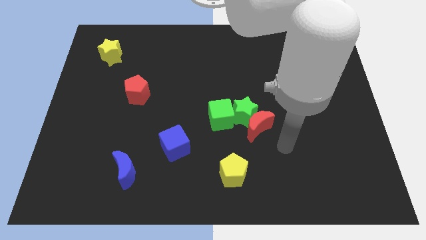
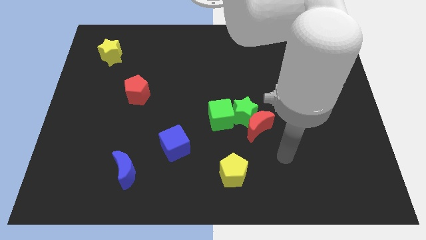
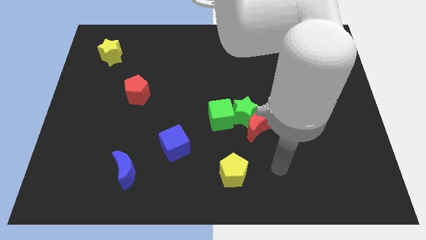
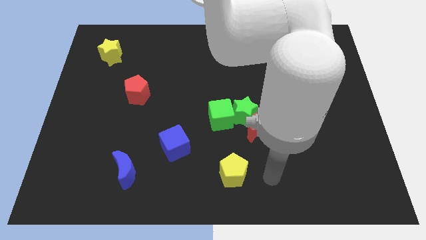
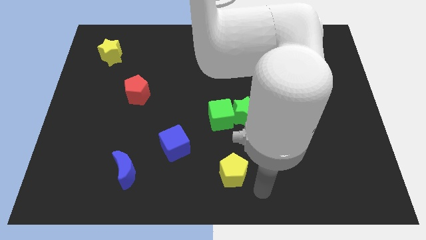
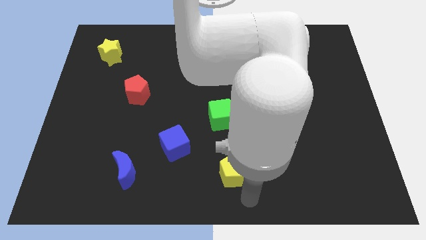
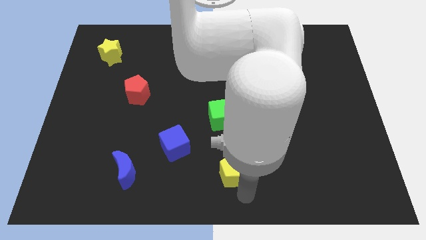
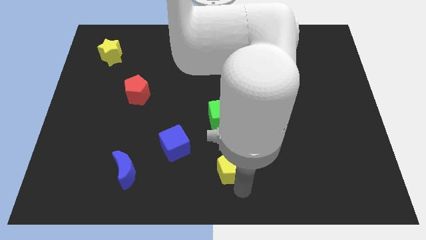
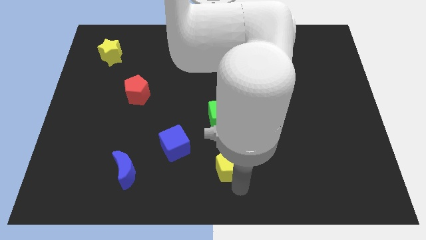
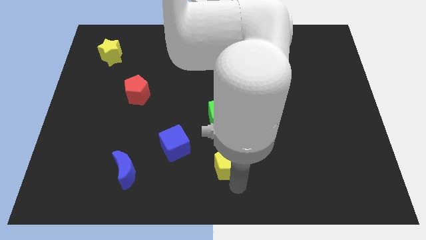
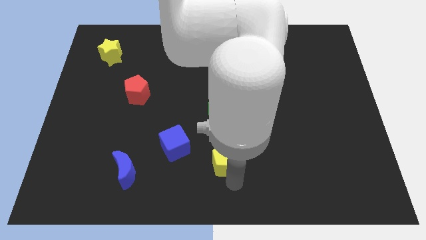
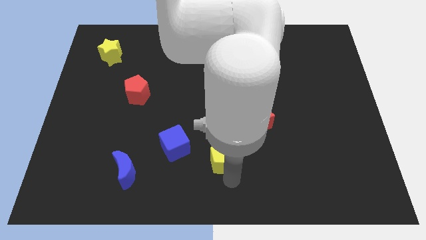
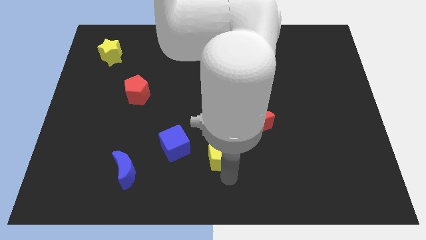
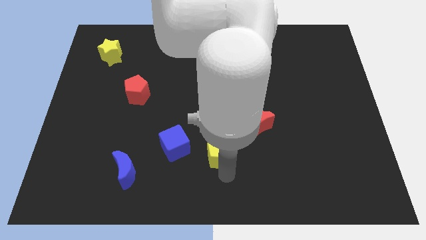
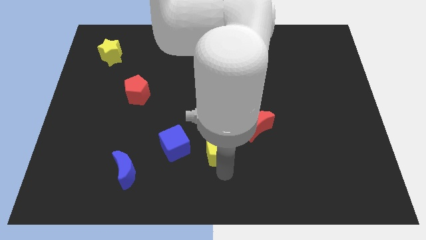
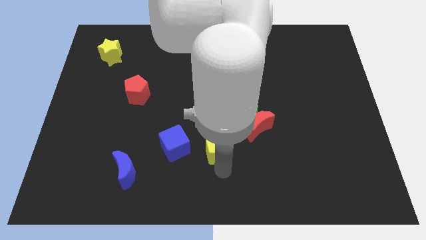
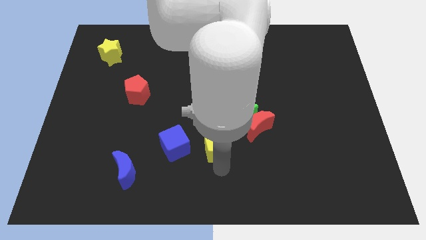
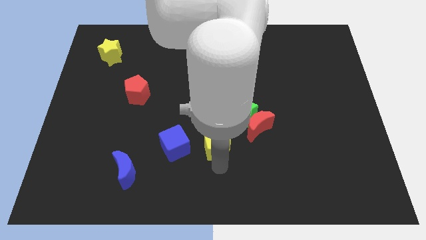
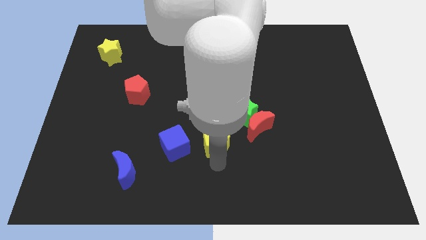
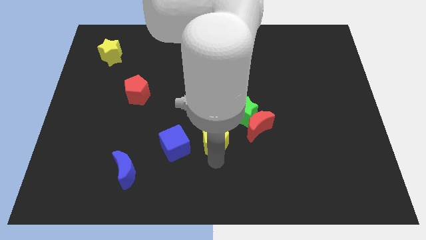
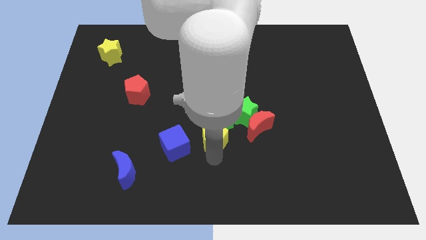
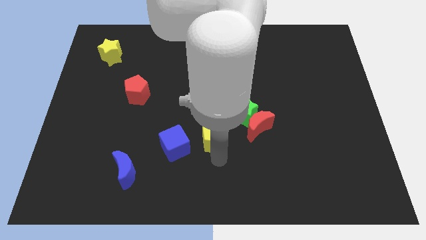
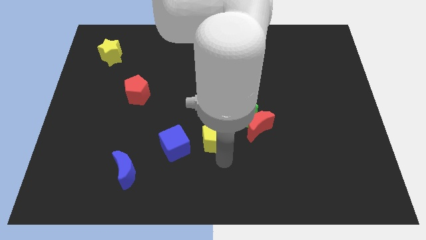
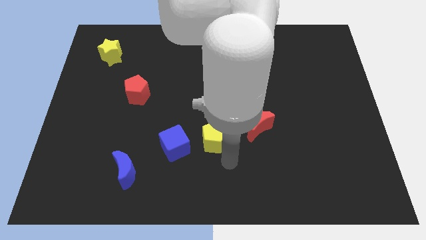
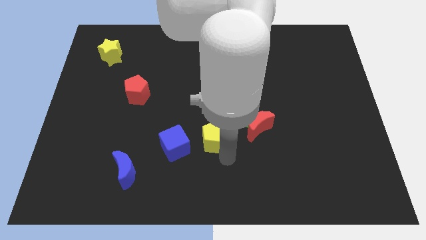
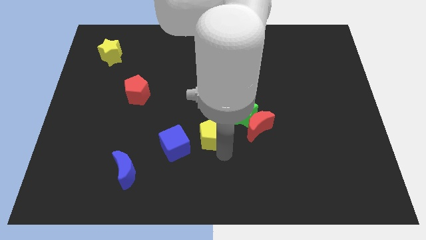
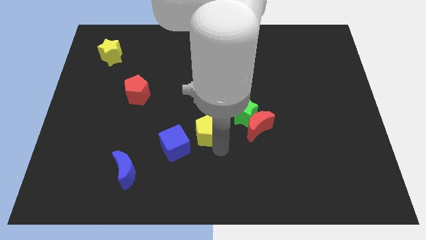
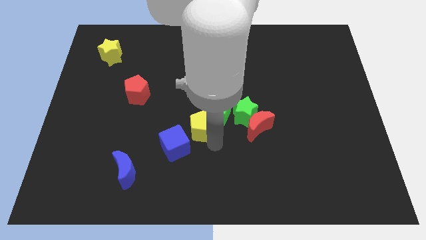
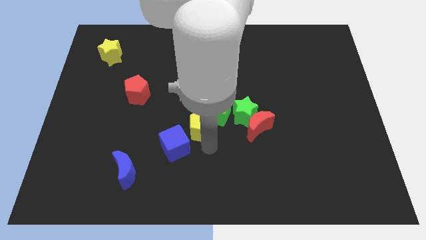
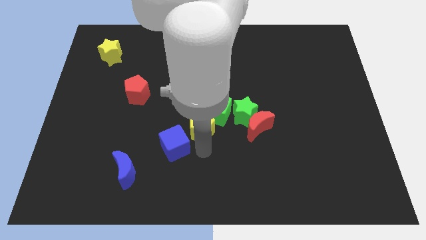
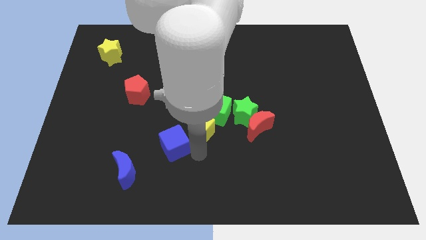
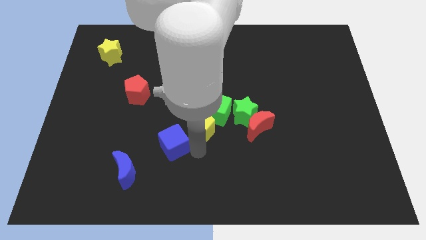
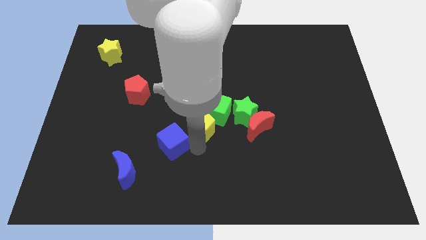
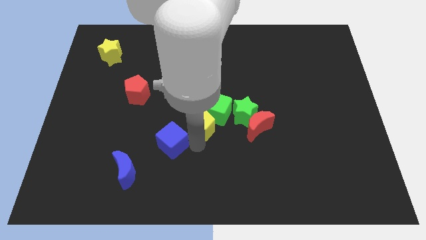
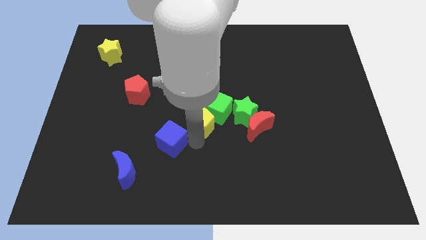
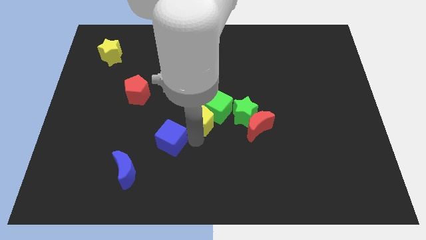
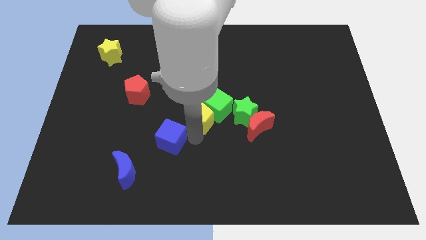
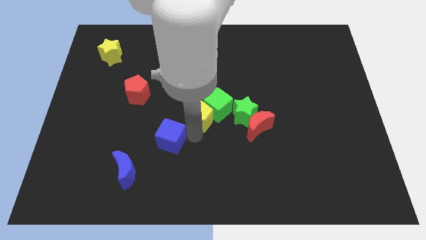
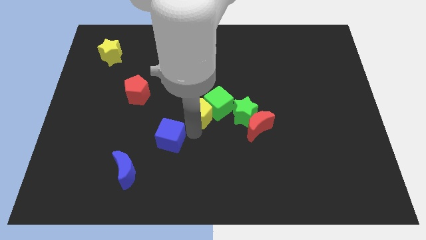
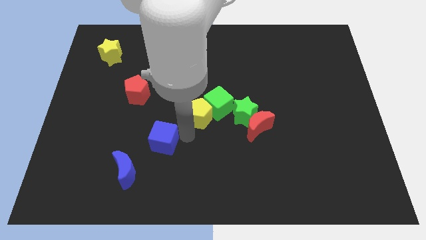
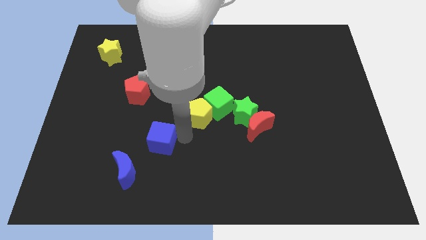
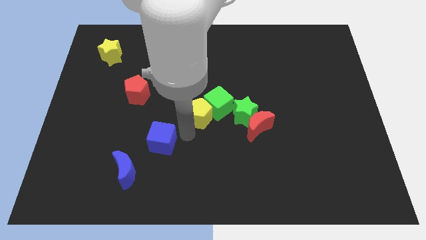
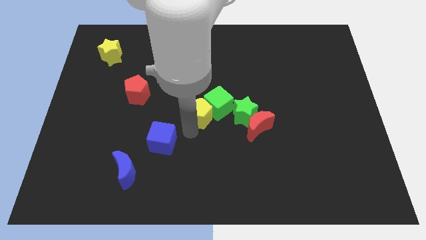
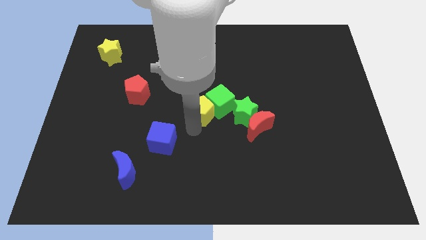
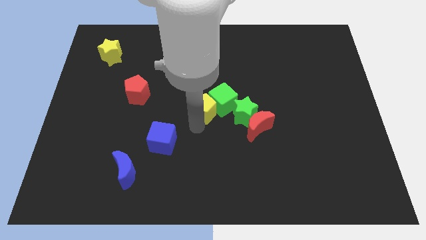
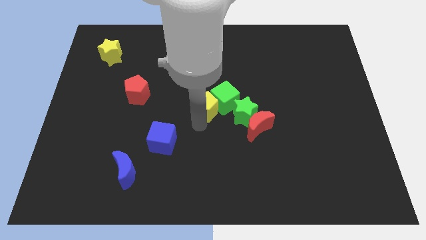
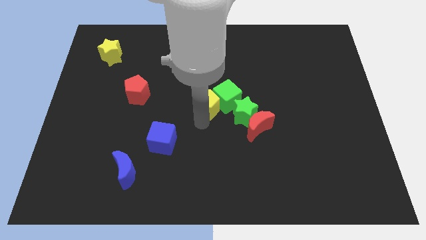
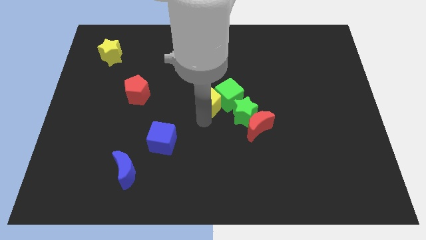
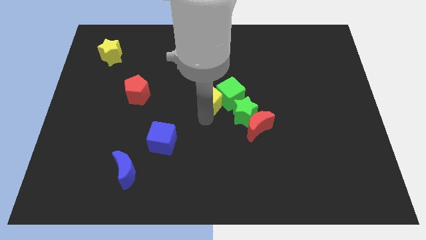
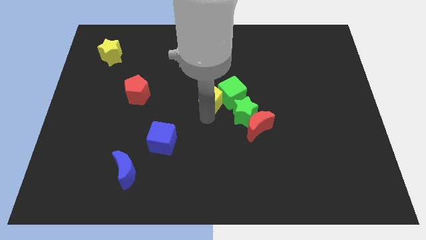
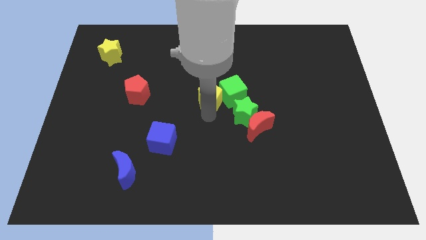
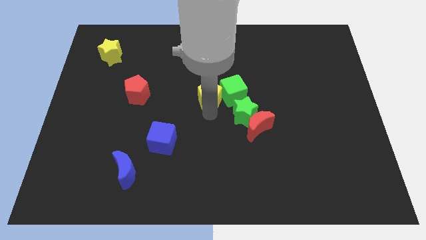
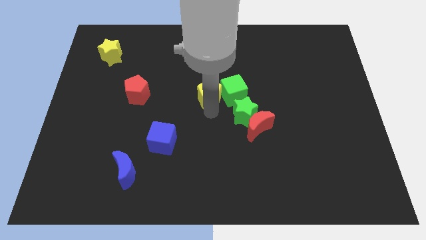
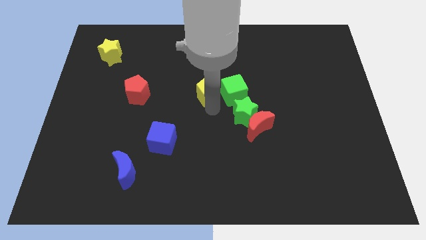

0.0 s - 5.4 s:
move the yellow pentagon upwards

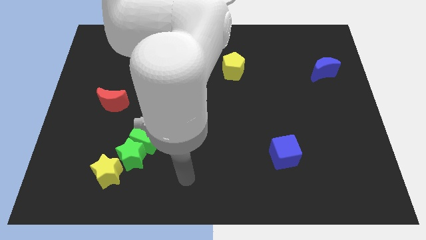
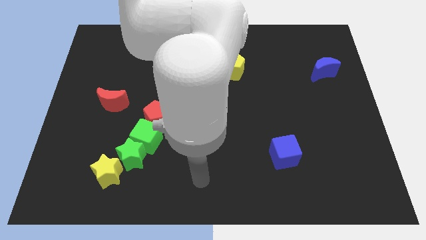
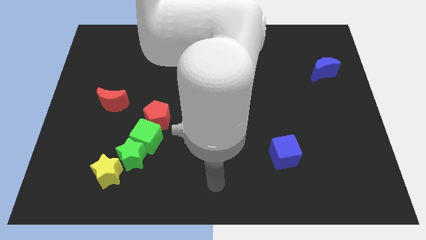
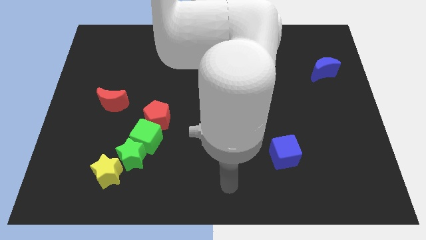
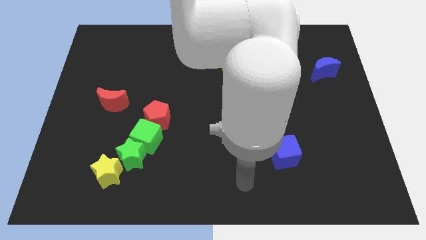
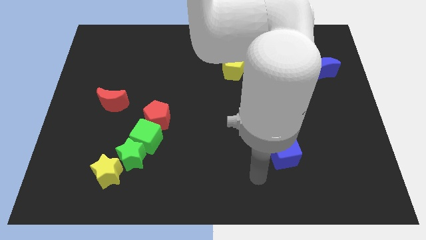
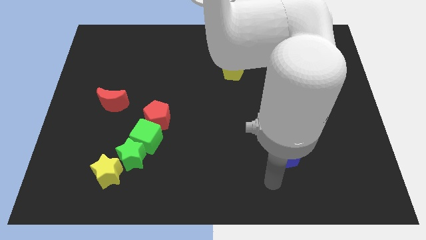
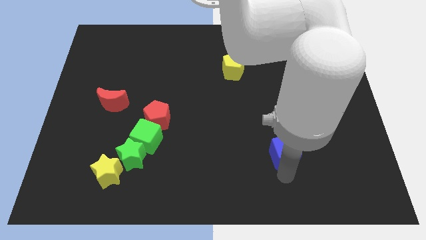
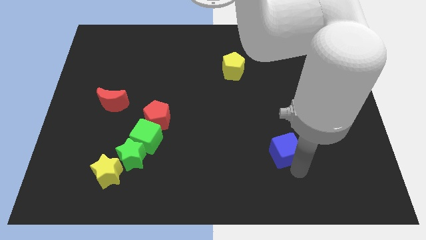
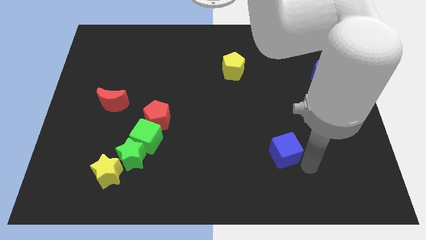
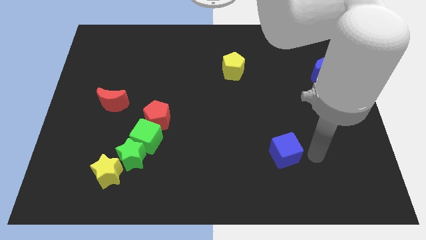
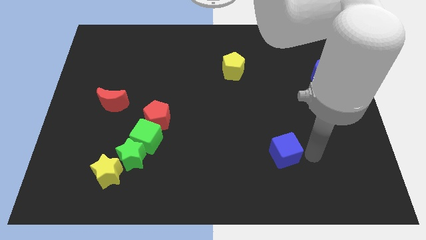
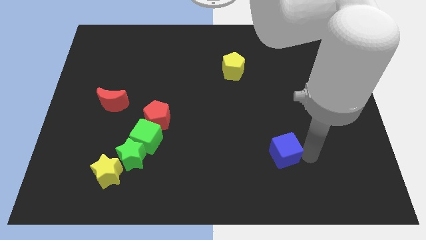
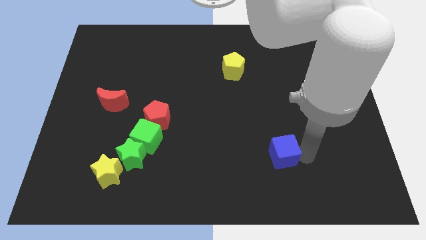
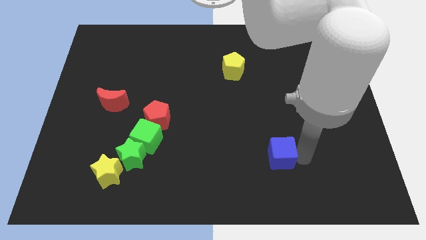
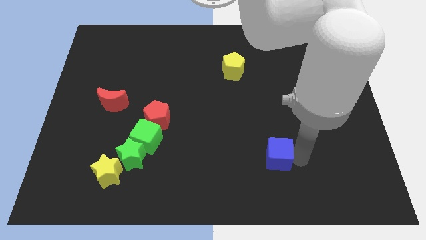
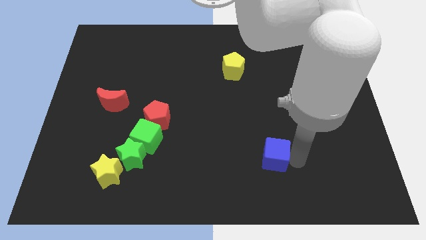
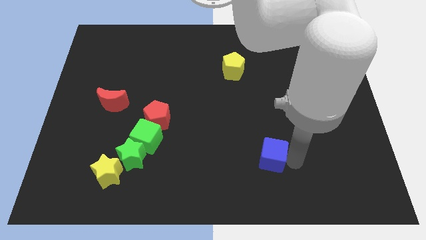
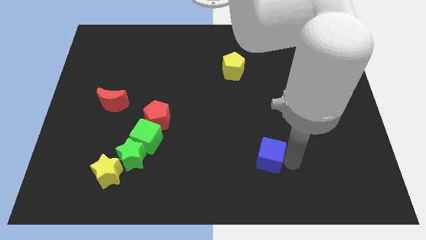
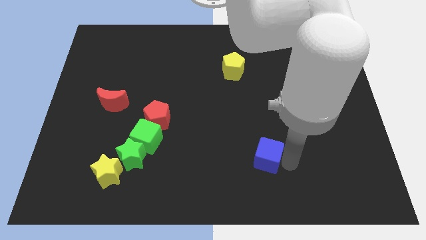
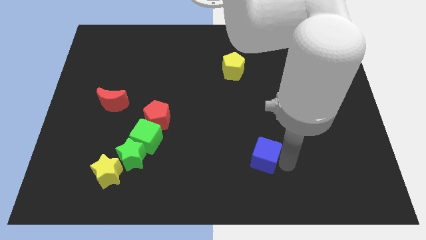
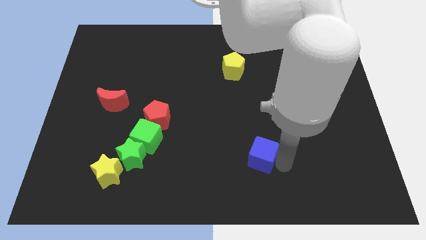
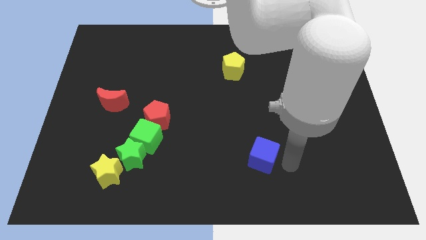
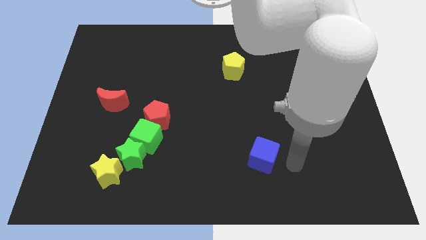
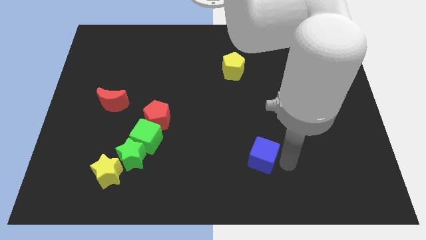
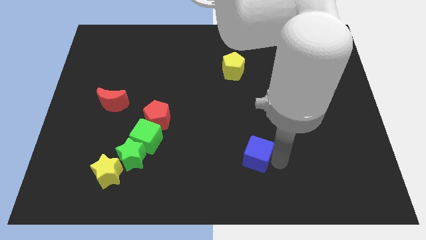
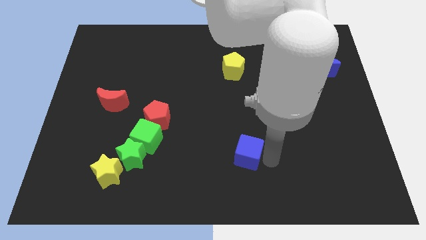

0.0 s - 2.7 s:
push the blue cube a little bit to the left
